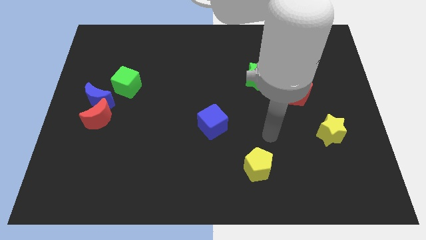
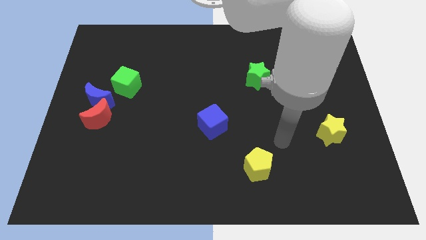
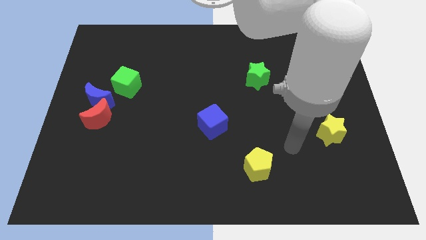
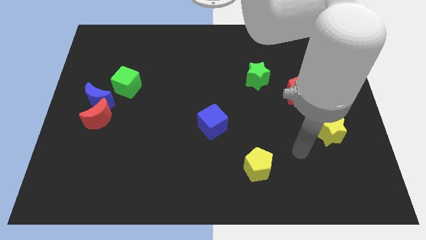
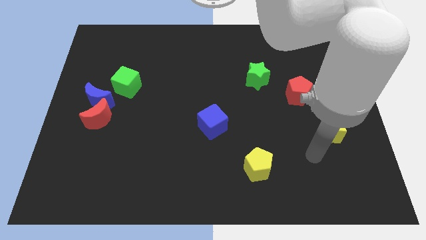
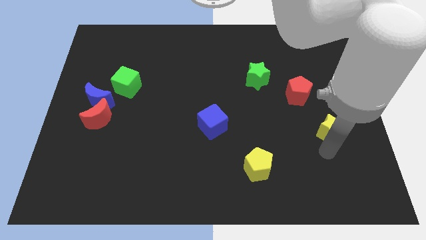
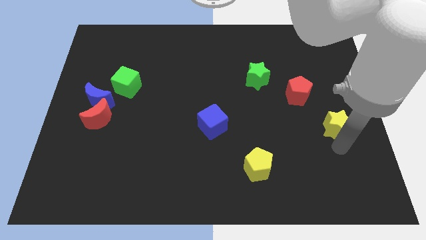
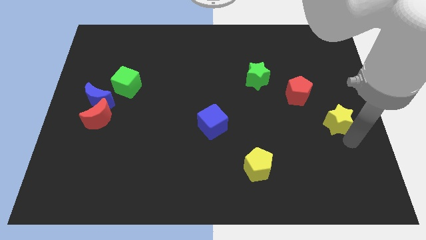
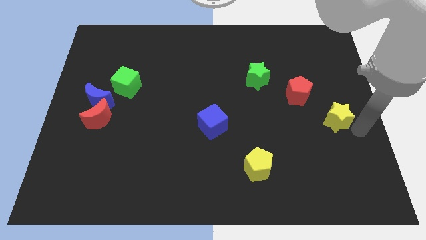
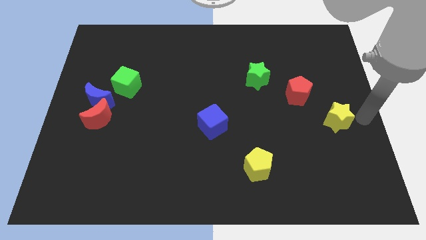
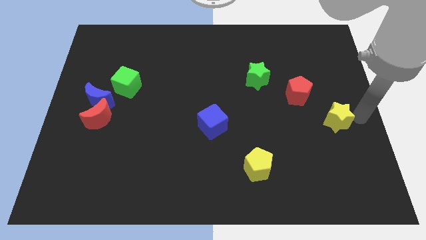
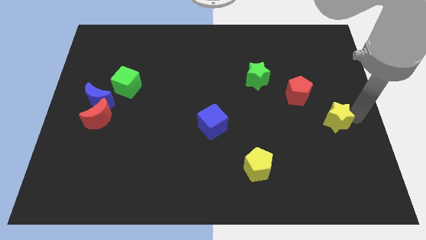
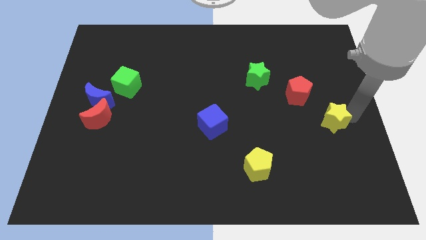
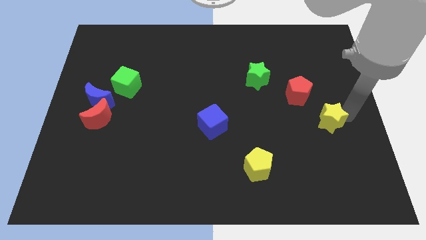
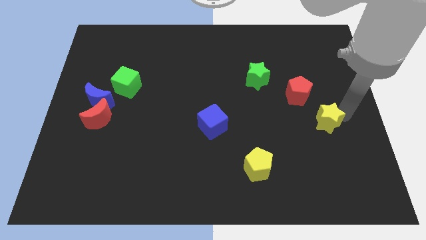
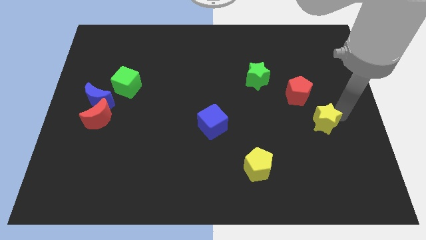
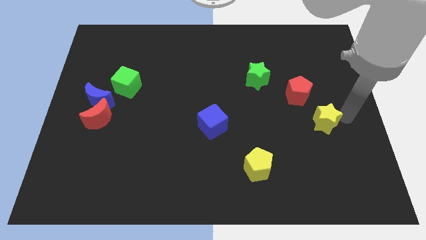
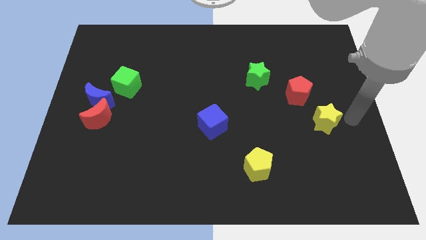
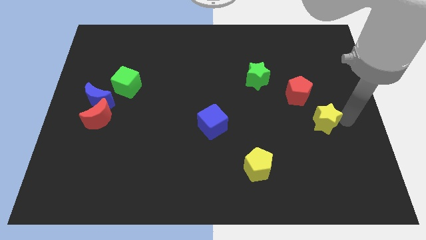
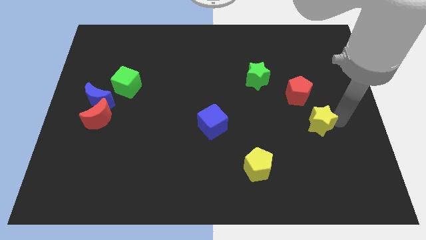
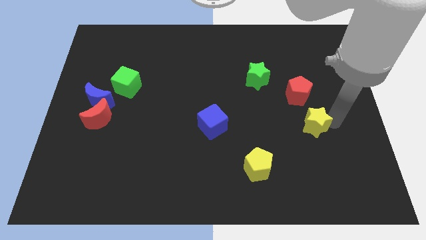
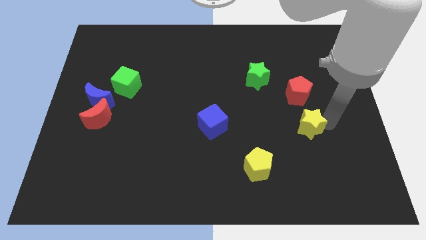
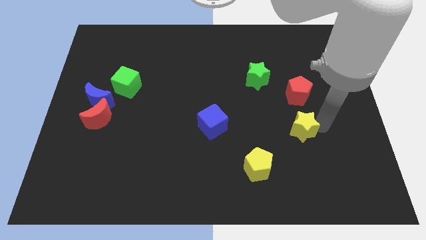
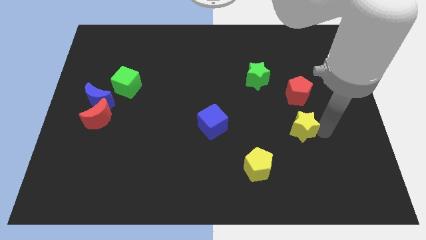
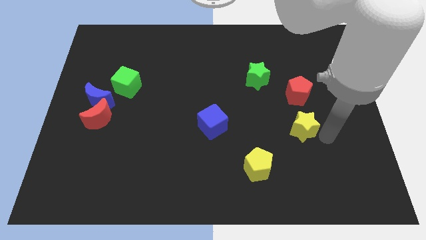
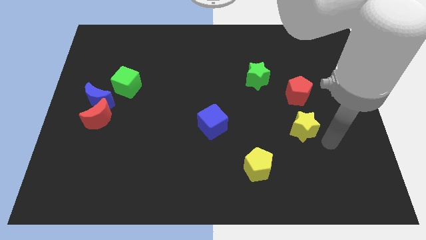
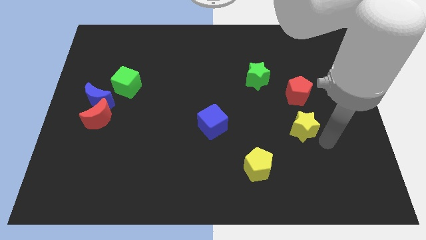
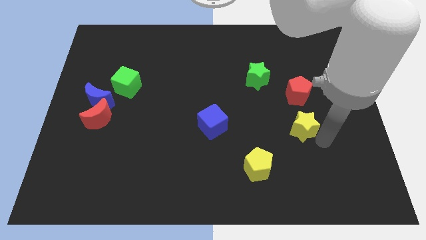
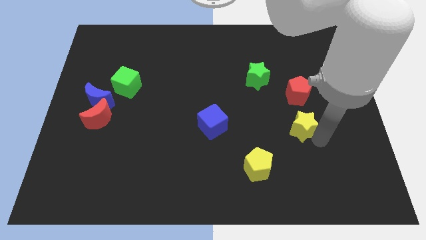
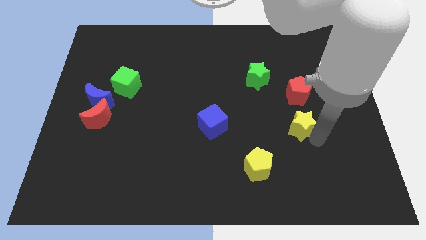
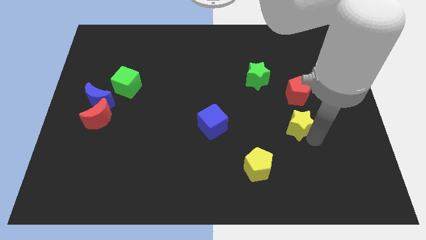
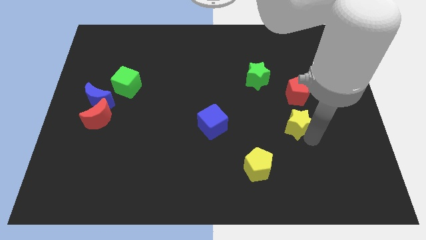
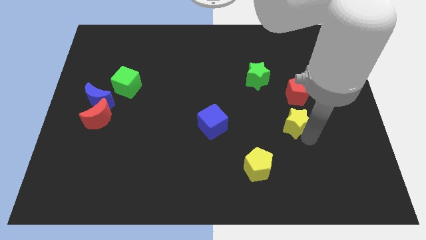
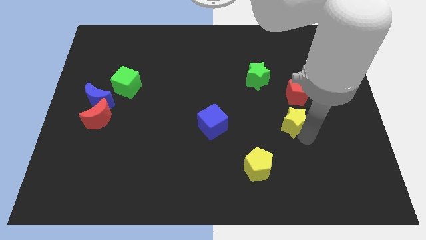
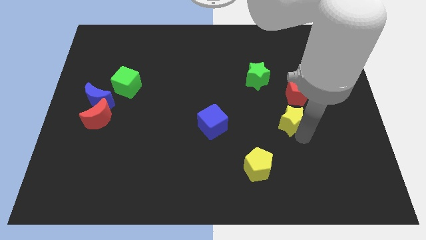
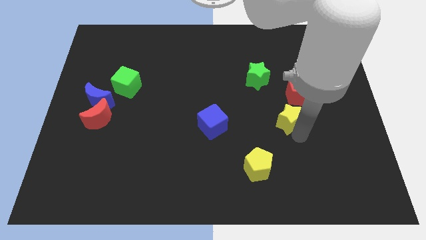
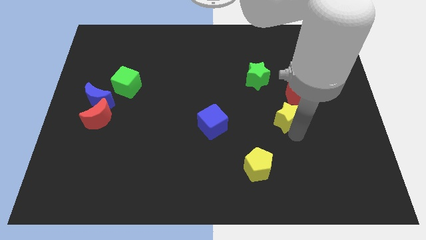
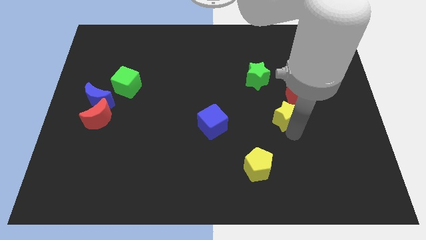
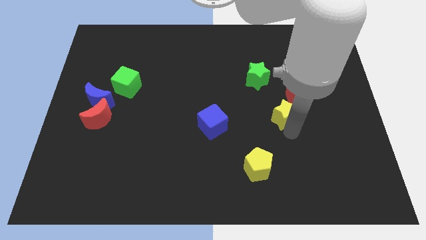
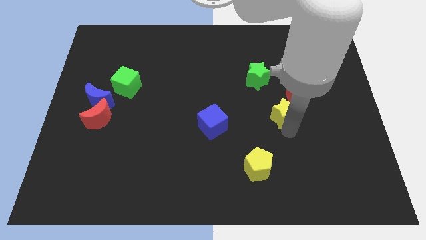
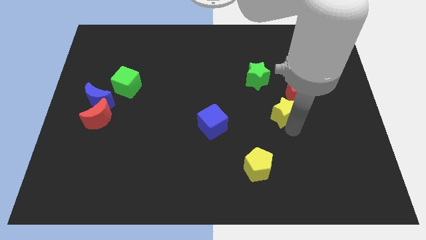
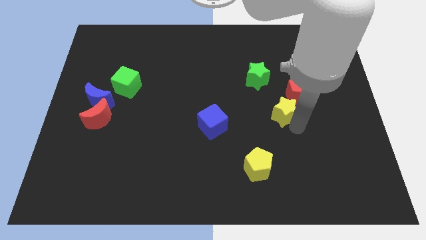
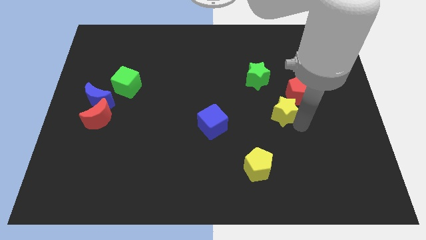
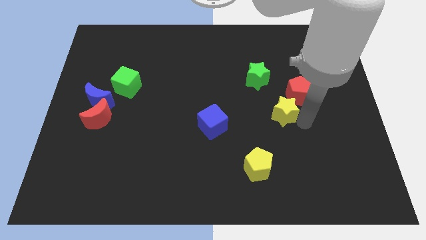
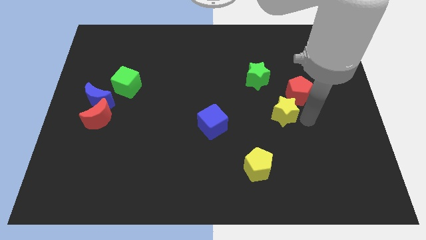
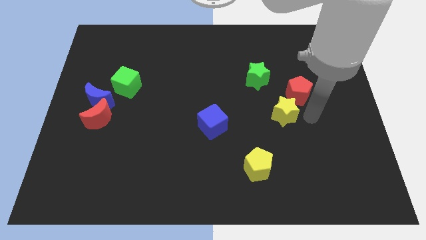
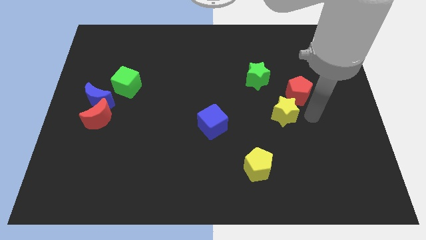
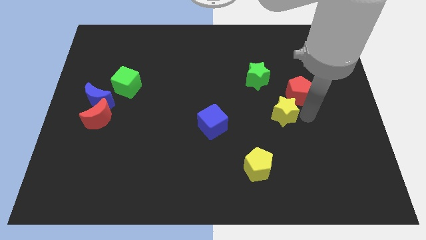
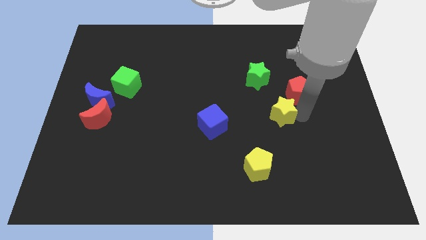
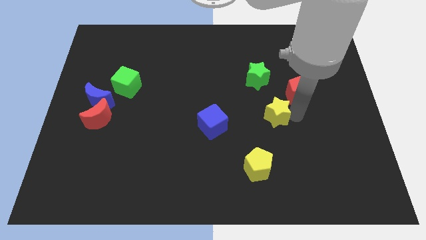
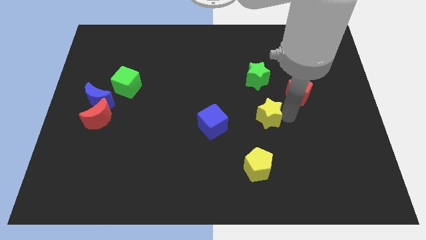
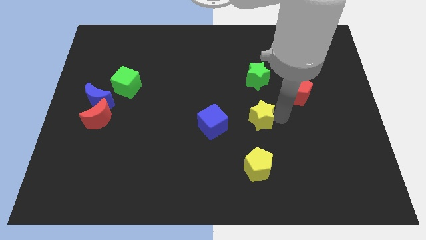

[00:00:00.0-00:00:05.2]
slide the yellow star to the center of the board

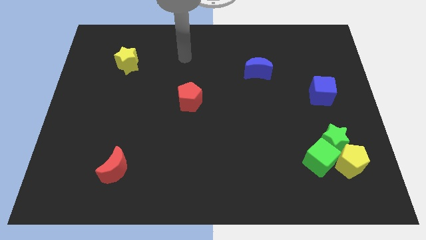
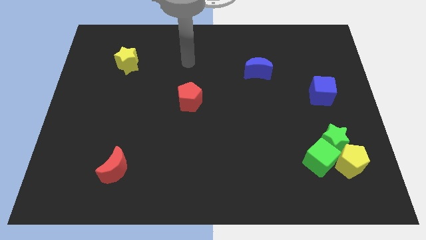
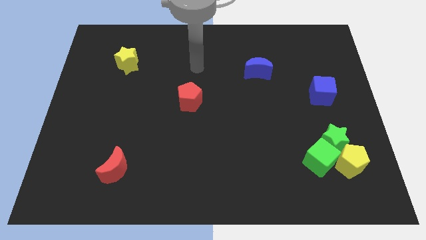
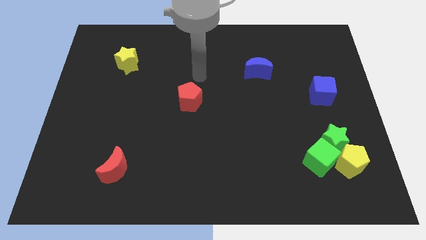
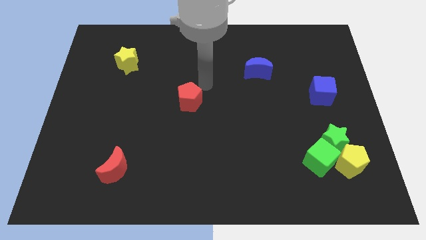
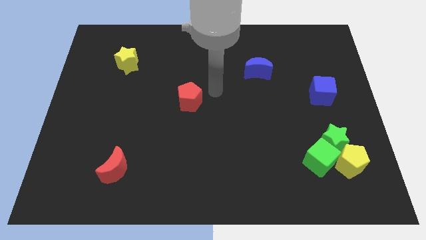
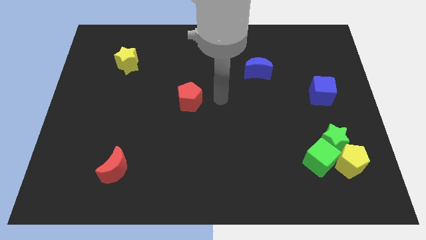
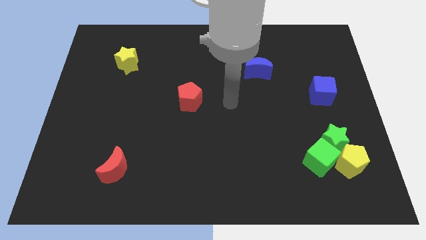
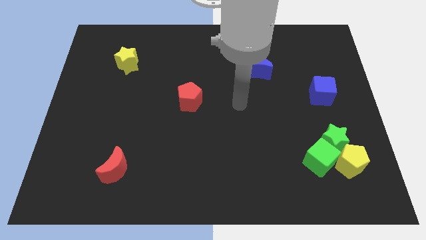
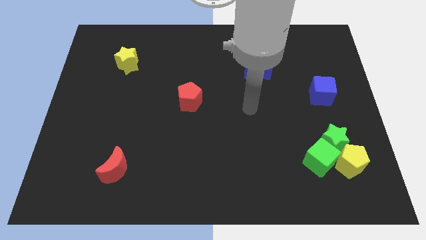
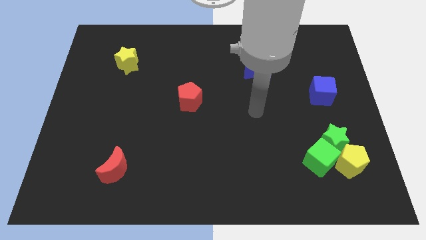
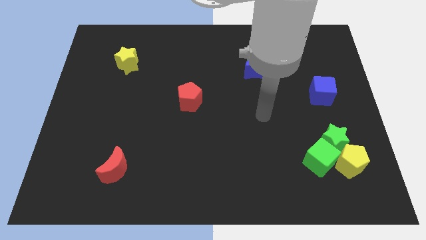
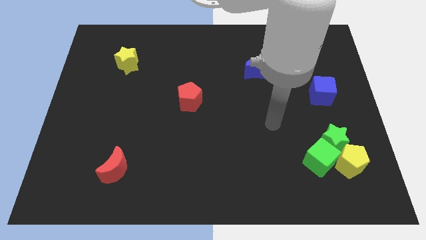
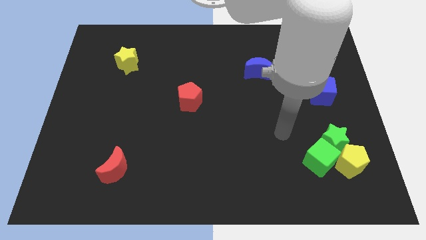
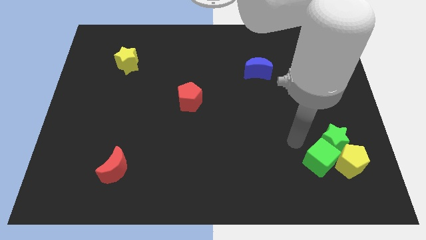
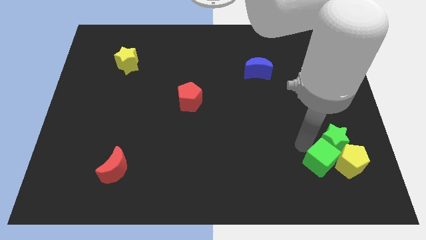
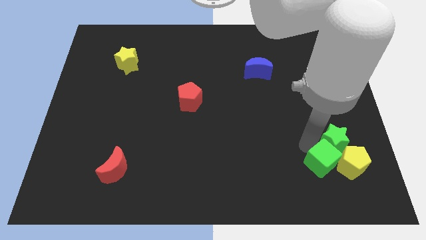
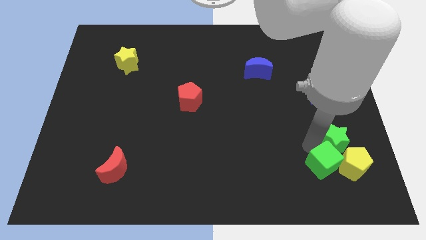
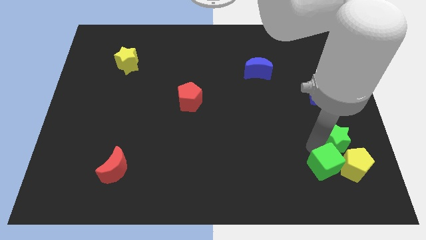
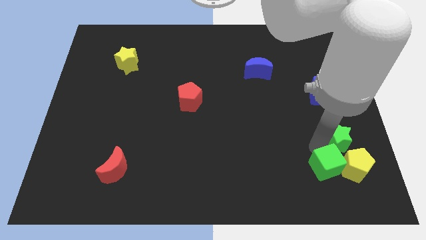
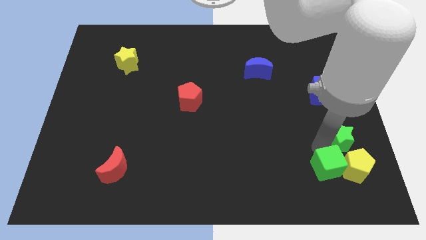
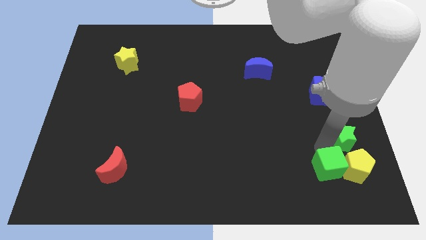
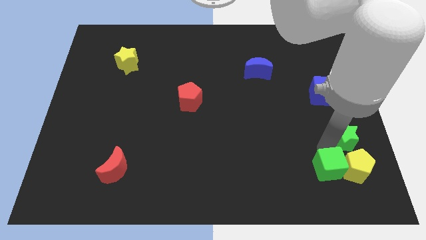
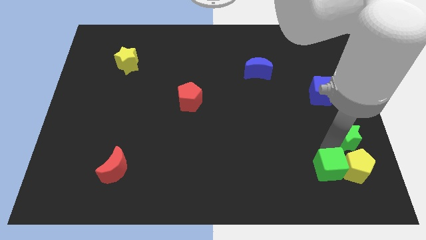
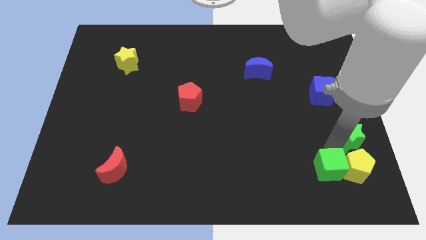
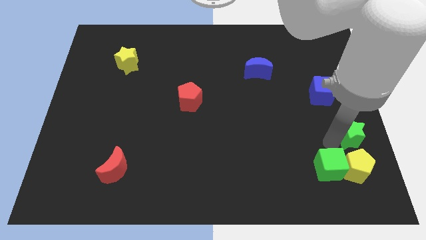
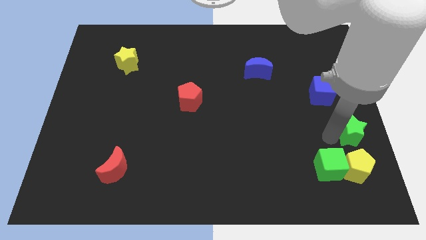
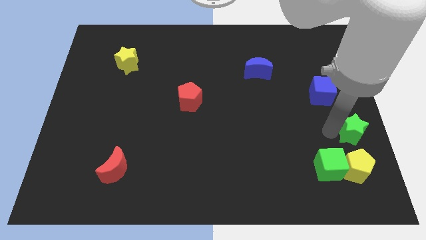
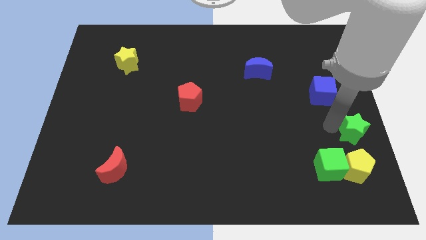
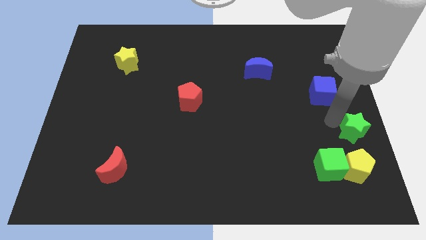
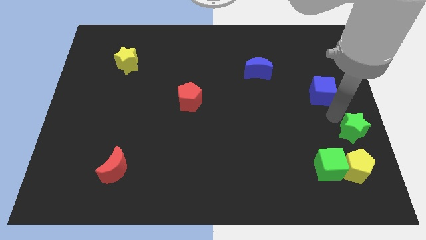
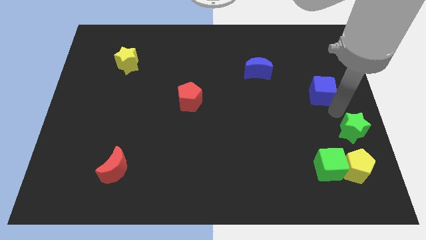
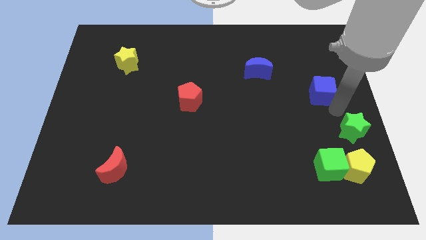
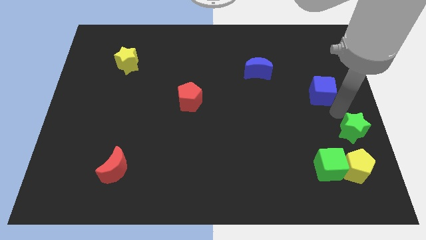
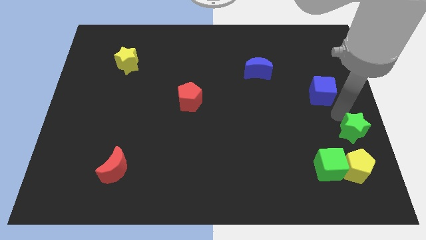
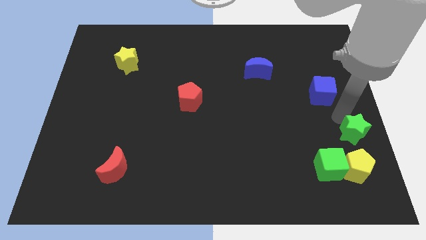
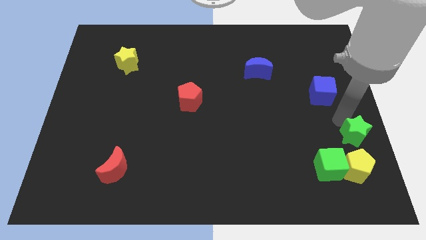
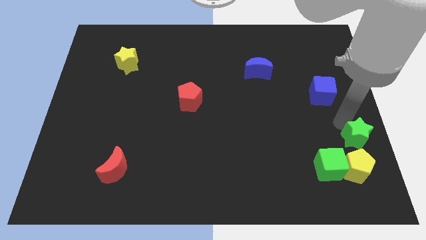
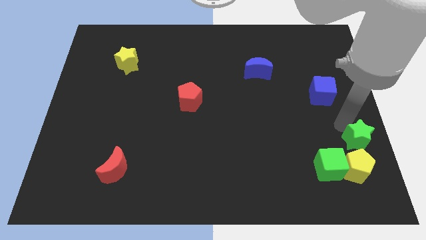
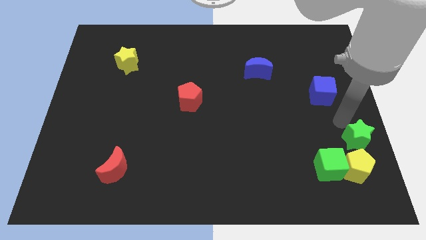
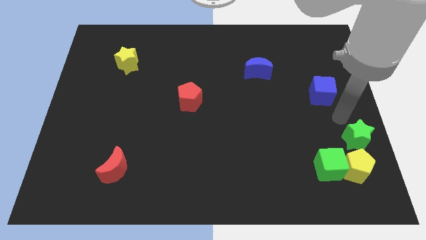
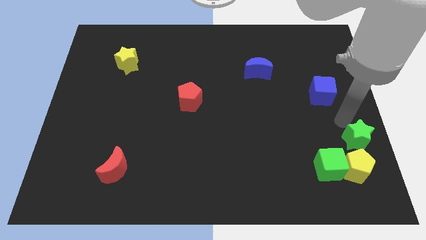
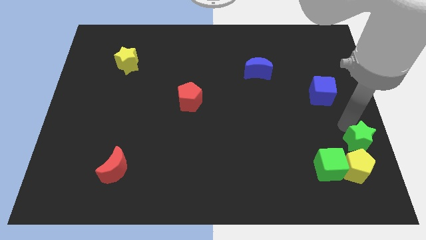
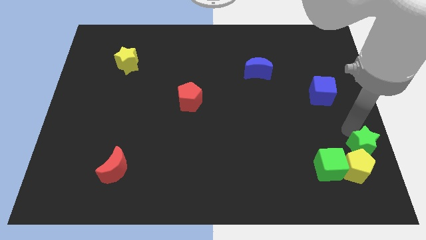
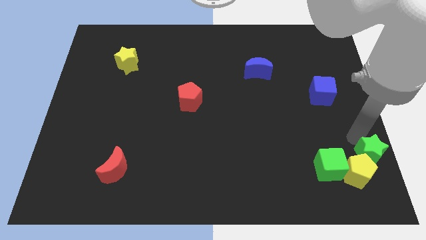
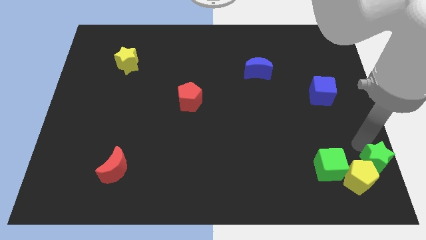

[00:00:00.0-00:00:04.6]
push the green star to the bottom right corner
